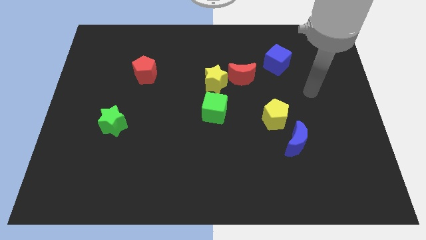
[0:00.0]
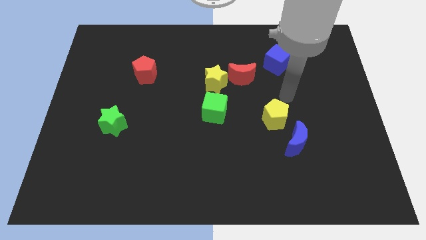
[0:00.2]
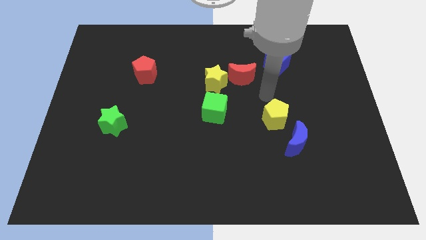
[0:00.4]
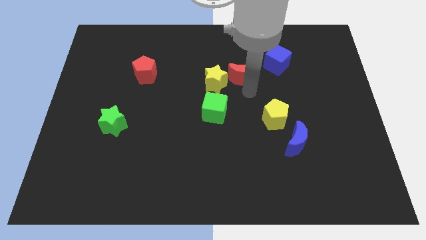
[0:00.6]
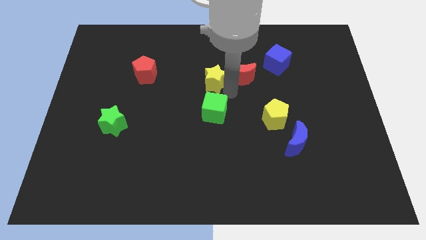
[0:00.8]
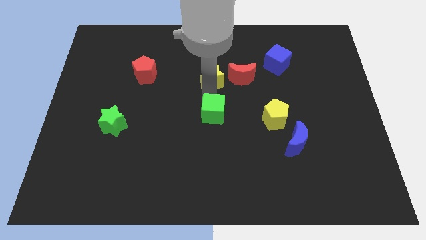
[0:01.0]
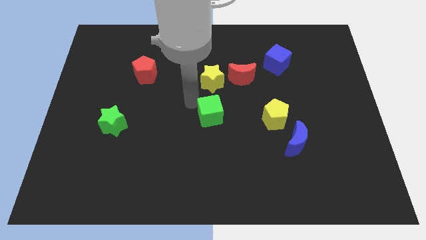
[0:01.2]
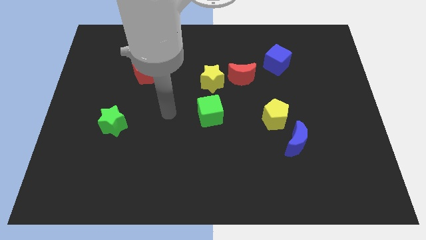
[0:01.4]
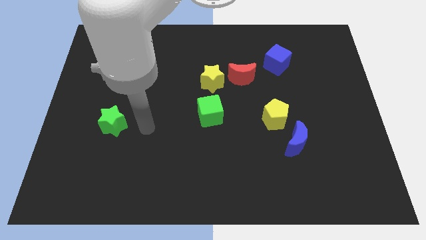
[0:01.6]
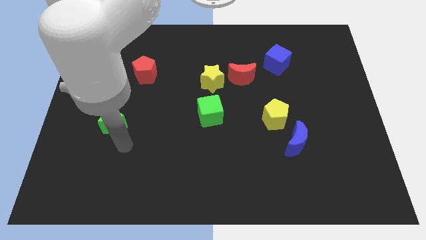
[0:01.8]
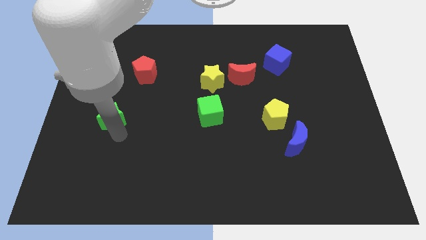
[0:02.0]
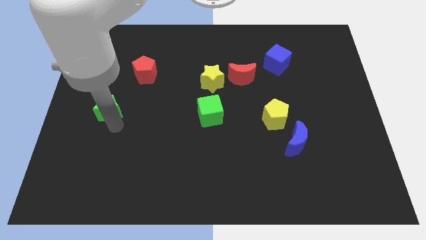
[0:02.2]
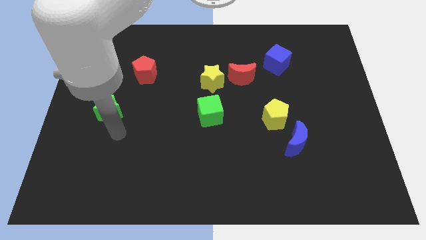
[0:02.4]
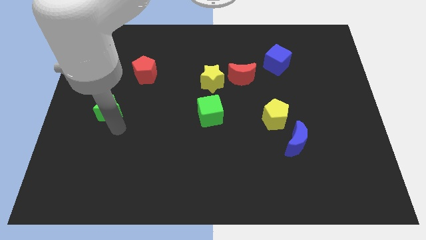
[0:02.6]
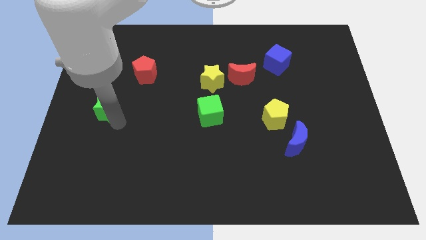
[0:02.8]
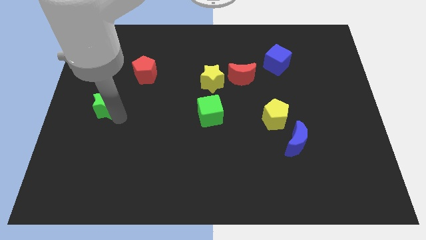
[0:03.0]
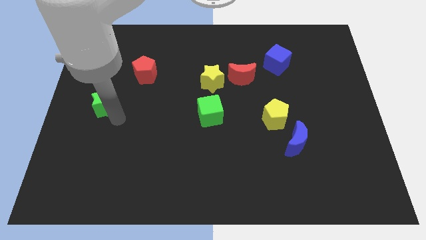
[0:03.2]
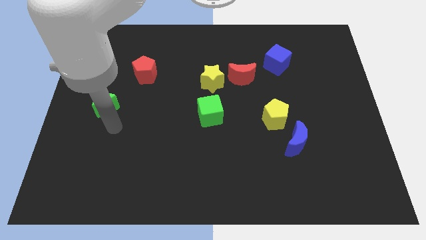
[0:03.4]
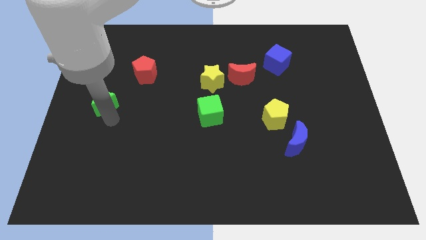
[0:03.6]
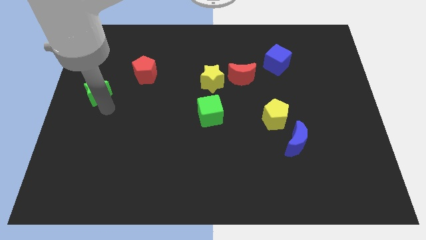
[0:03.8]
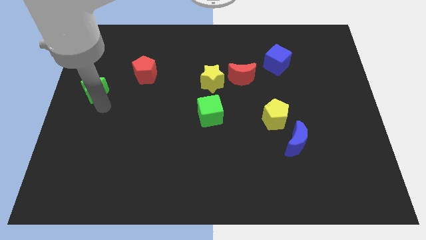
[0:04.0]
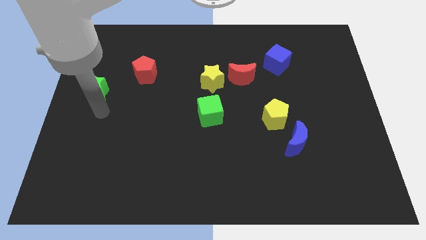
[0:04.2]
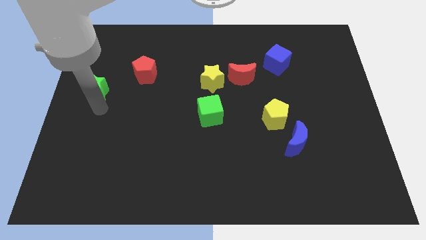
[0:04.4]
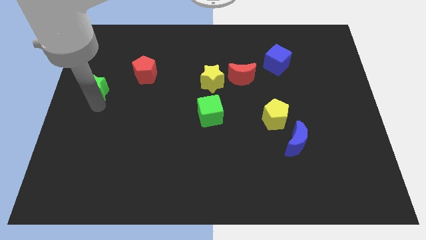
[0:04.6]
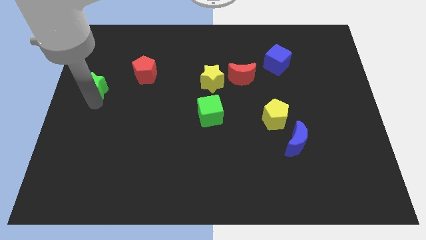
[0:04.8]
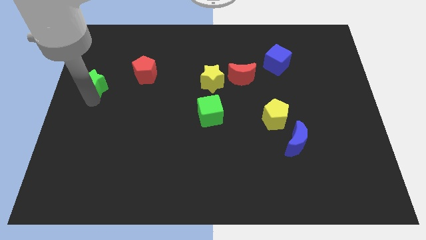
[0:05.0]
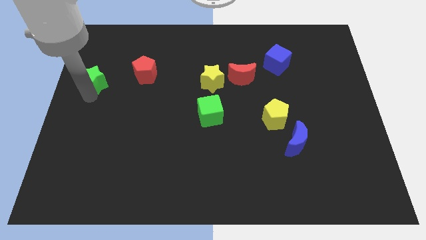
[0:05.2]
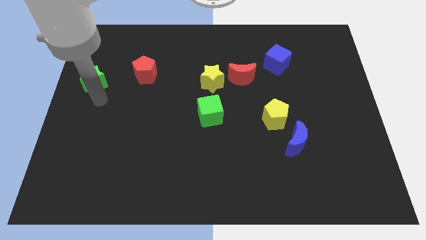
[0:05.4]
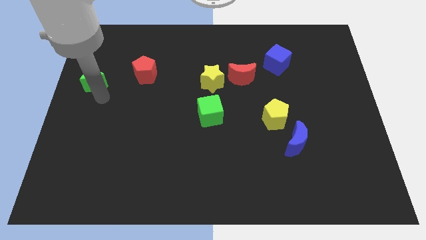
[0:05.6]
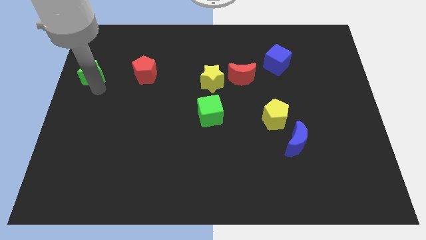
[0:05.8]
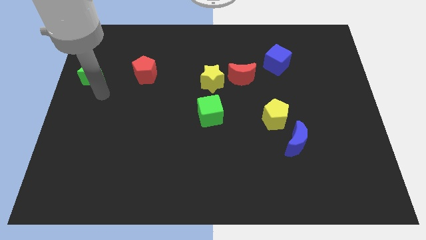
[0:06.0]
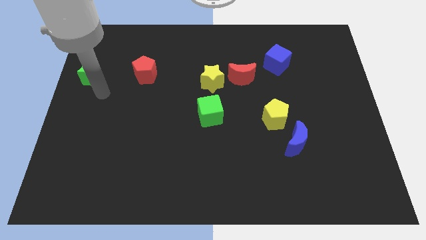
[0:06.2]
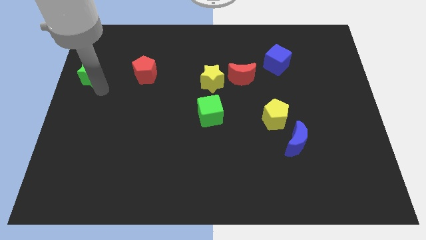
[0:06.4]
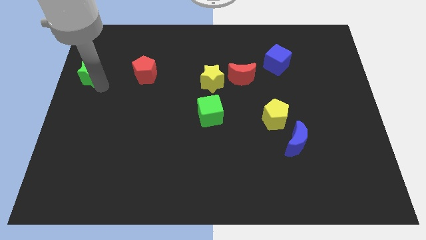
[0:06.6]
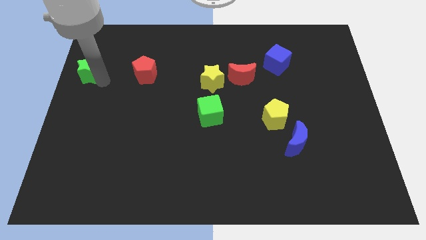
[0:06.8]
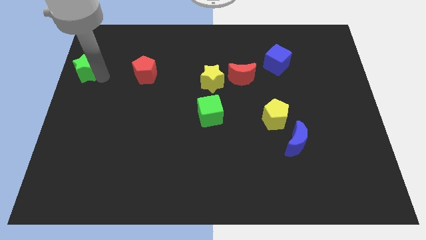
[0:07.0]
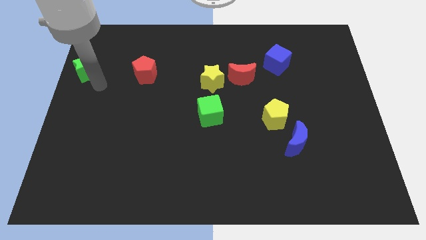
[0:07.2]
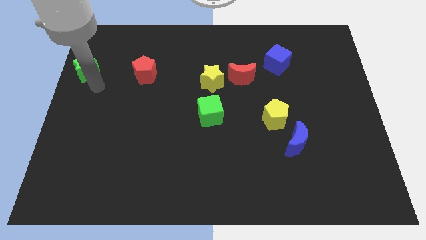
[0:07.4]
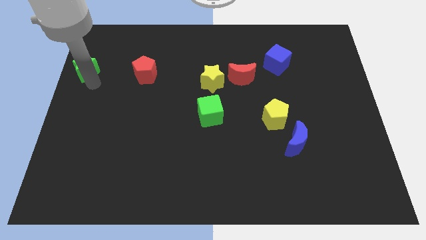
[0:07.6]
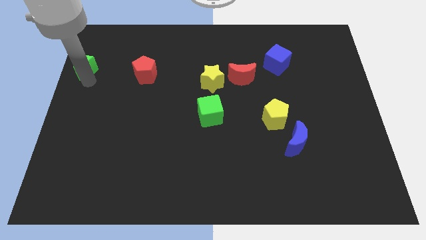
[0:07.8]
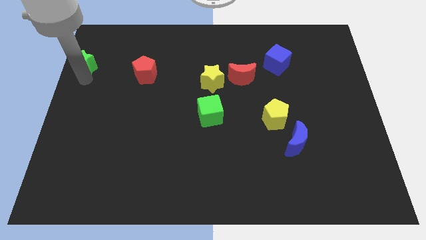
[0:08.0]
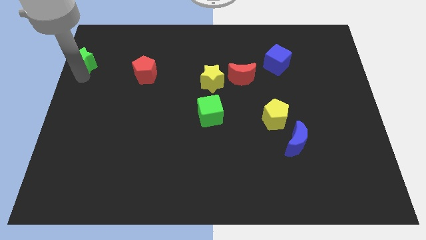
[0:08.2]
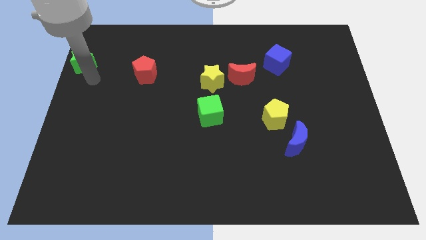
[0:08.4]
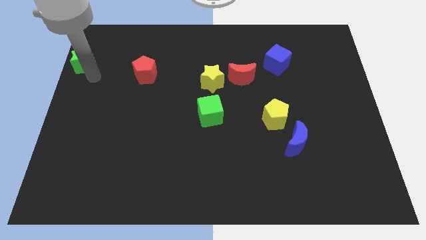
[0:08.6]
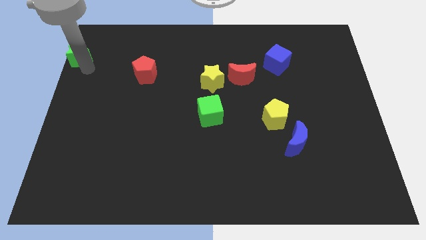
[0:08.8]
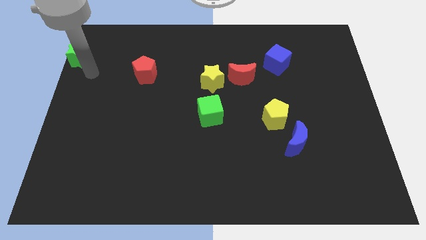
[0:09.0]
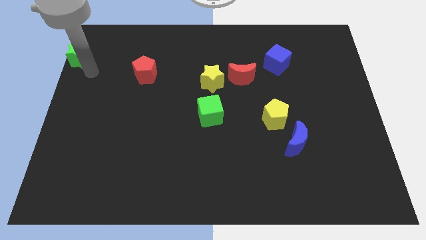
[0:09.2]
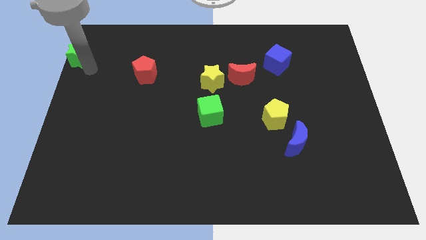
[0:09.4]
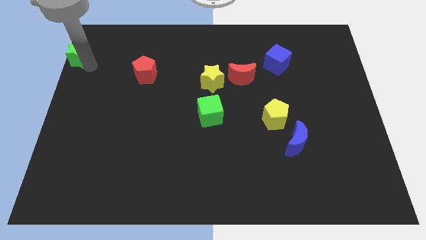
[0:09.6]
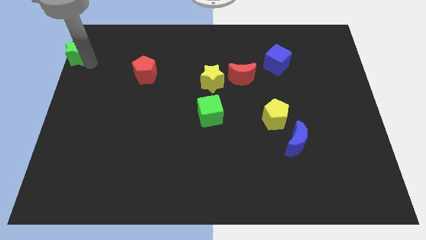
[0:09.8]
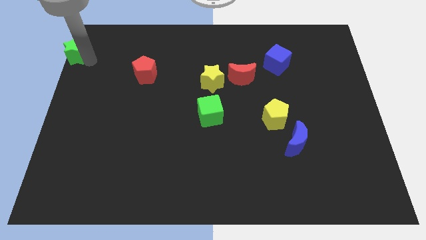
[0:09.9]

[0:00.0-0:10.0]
push the green star to the top left corner

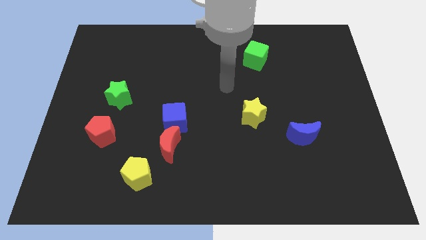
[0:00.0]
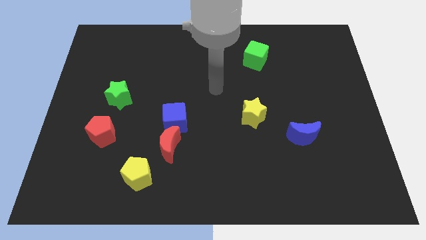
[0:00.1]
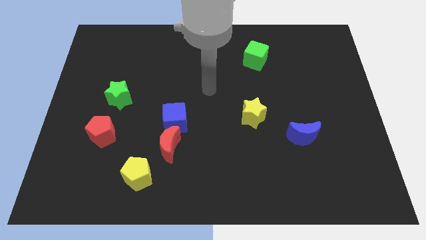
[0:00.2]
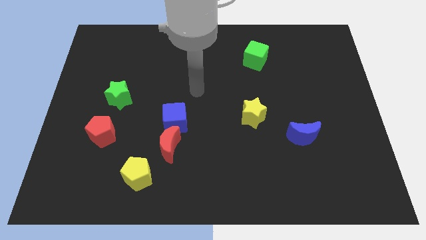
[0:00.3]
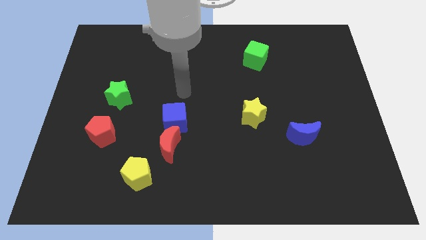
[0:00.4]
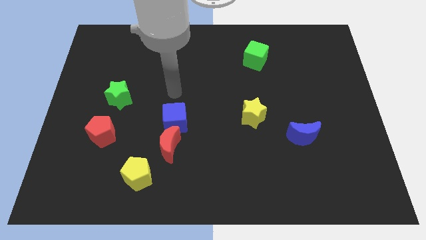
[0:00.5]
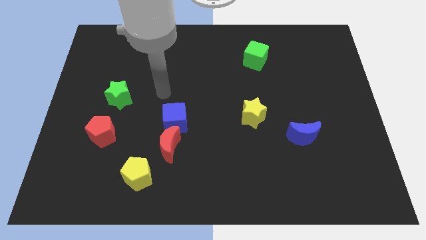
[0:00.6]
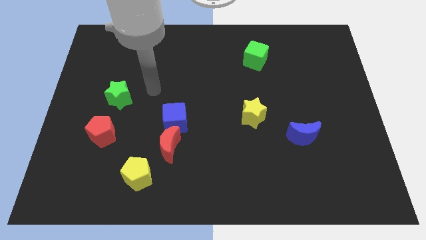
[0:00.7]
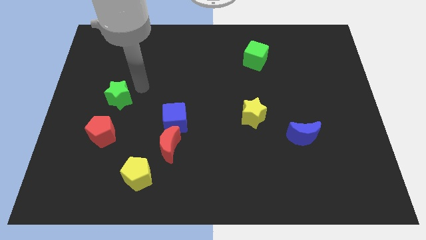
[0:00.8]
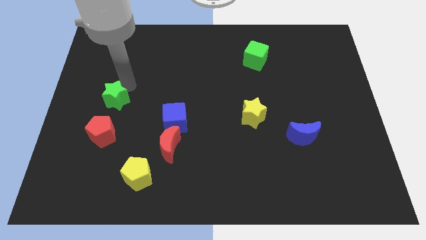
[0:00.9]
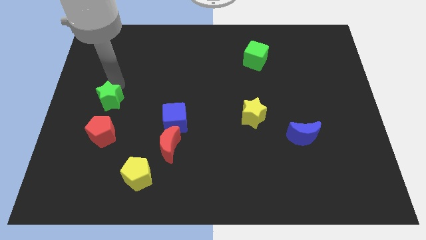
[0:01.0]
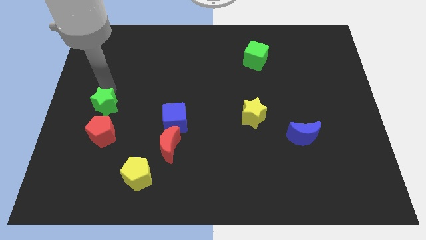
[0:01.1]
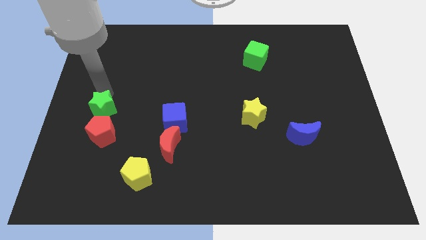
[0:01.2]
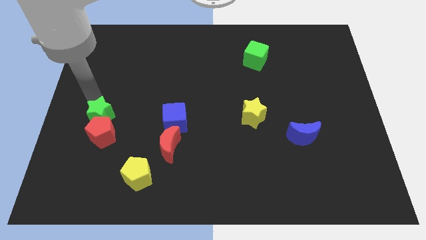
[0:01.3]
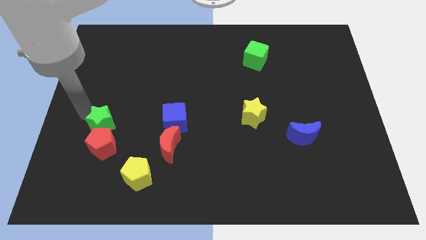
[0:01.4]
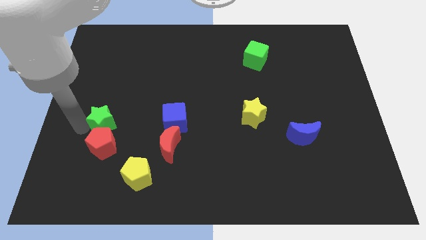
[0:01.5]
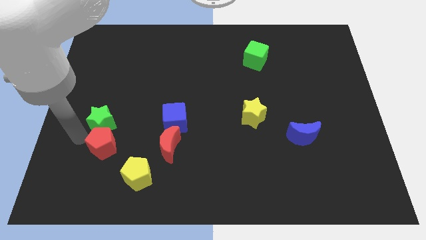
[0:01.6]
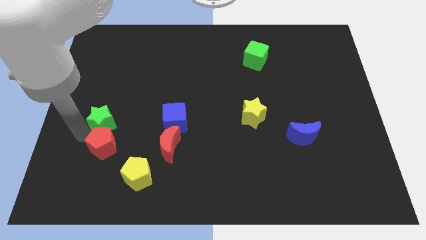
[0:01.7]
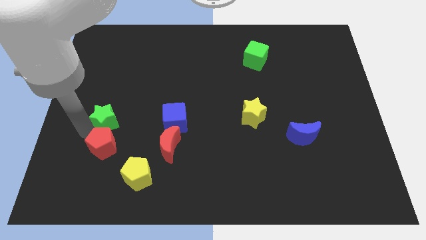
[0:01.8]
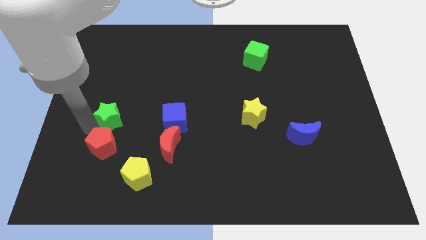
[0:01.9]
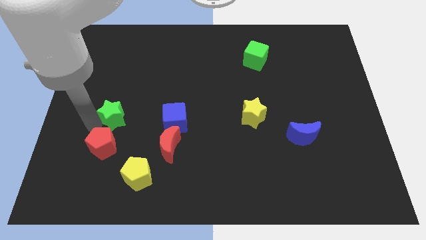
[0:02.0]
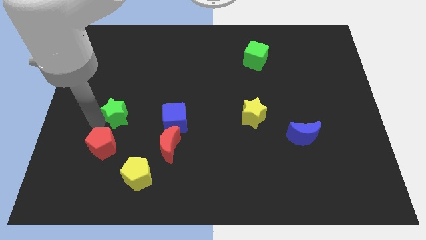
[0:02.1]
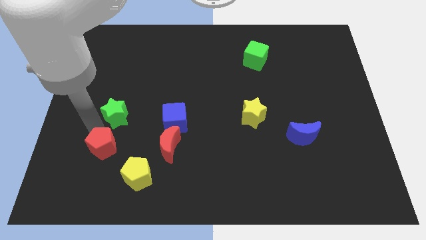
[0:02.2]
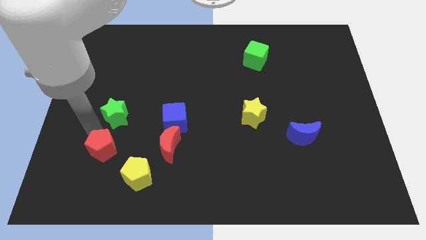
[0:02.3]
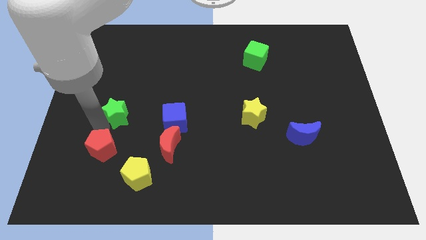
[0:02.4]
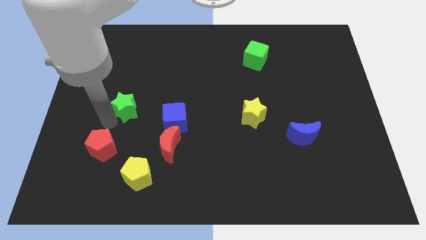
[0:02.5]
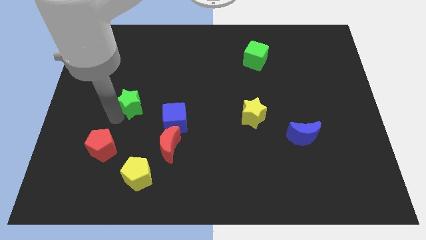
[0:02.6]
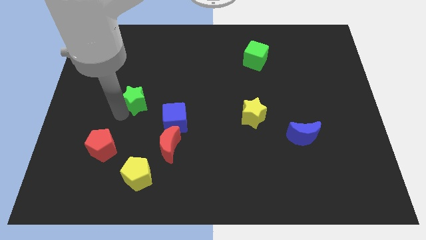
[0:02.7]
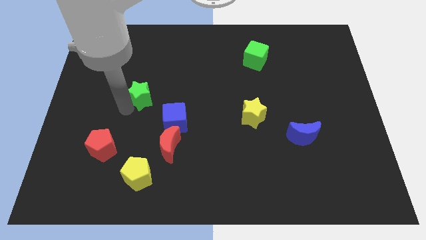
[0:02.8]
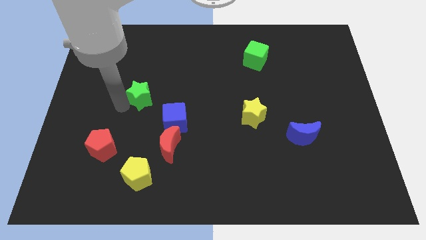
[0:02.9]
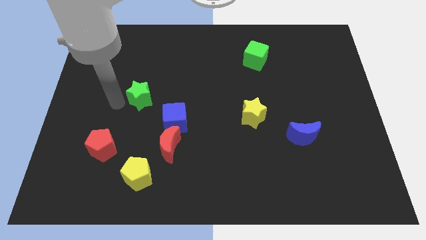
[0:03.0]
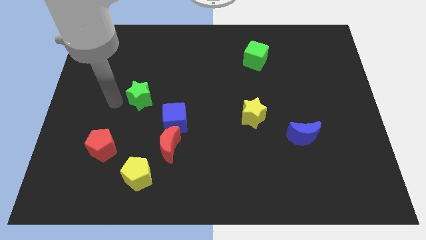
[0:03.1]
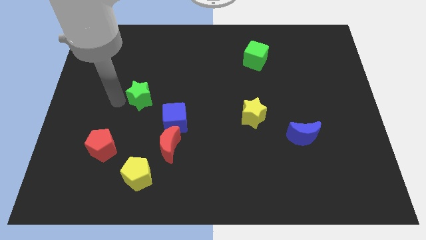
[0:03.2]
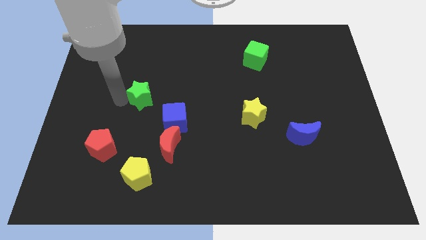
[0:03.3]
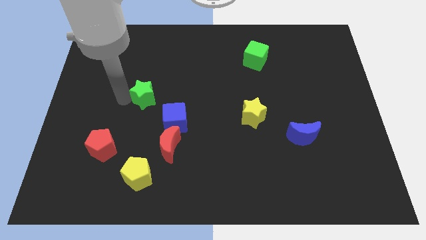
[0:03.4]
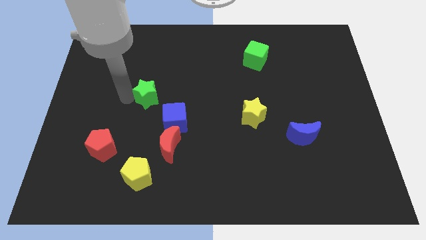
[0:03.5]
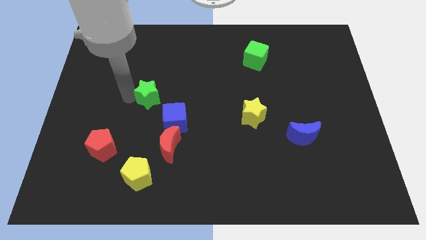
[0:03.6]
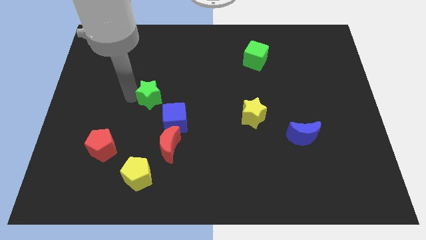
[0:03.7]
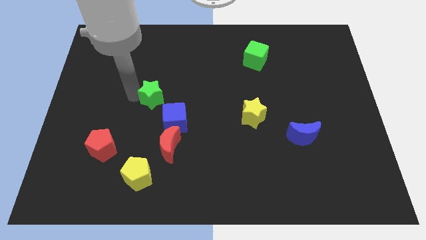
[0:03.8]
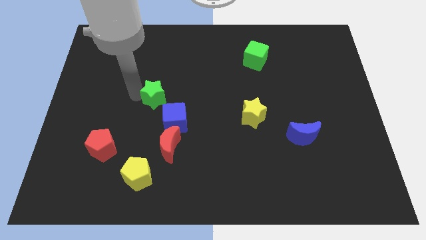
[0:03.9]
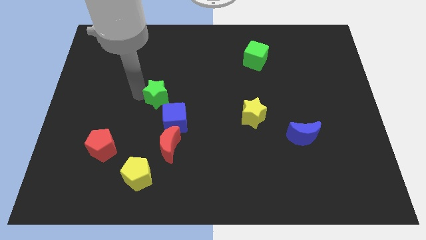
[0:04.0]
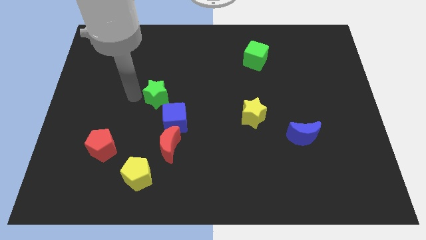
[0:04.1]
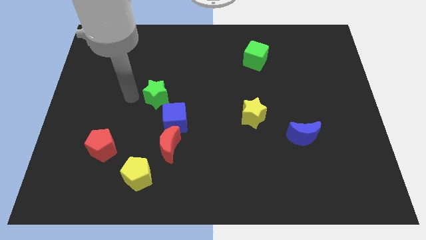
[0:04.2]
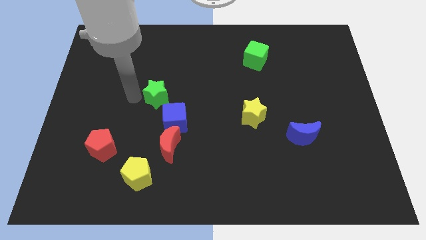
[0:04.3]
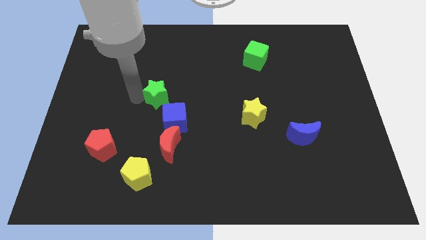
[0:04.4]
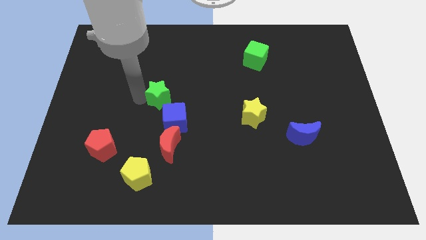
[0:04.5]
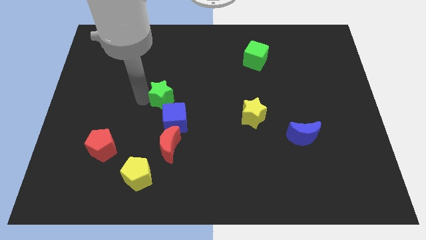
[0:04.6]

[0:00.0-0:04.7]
slide the green star to the middle of the board
